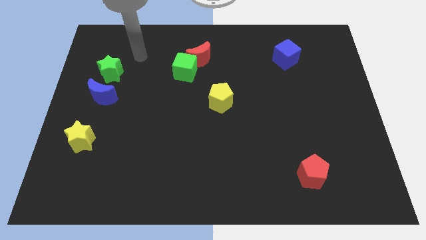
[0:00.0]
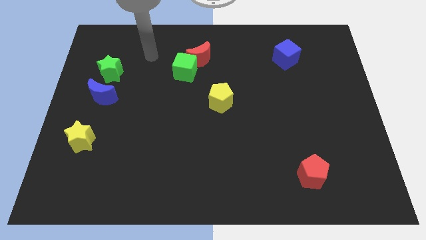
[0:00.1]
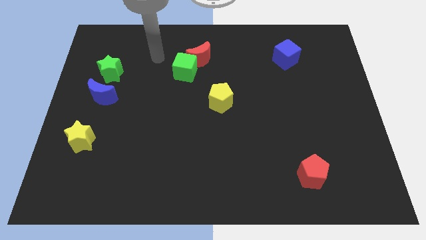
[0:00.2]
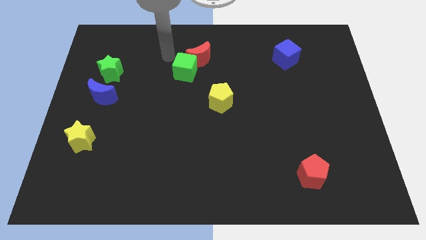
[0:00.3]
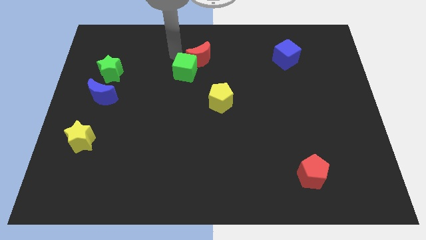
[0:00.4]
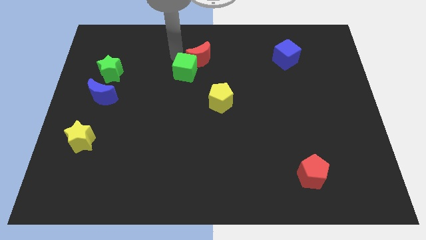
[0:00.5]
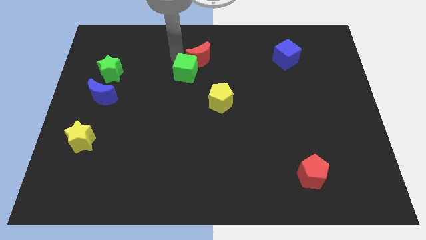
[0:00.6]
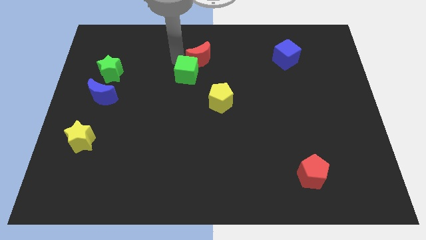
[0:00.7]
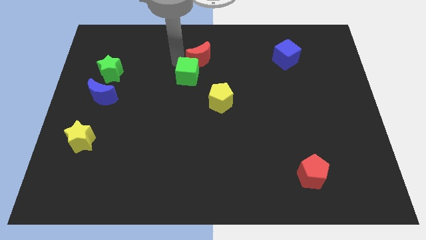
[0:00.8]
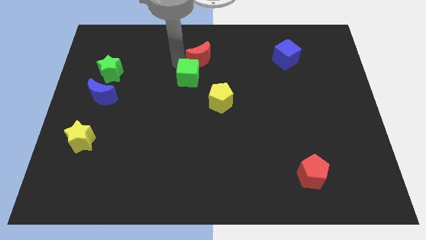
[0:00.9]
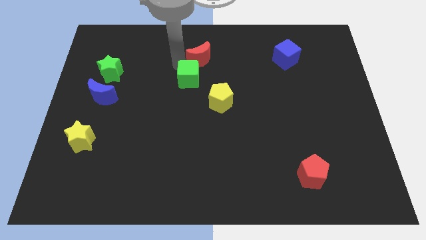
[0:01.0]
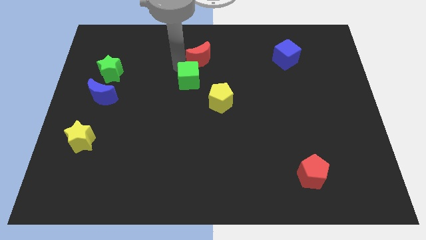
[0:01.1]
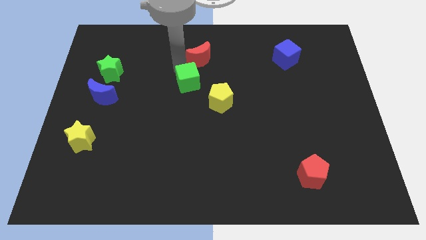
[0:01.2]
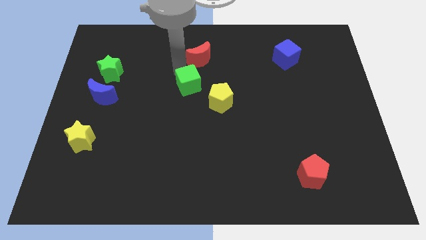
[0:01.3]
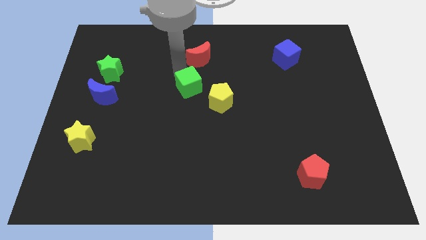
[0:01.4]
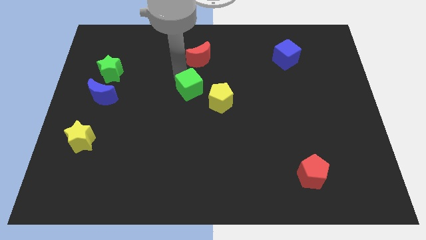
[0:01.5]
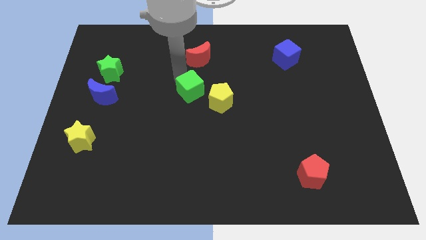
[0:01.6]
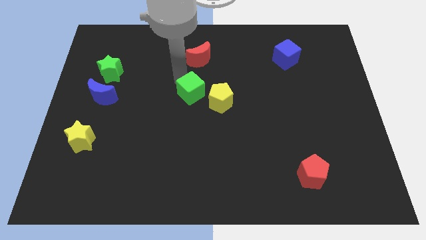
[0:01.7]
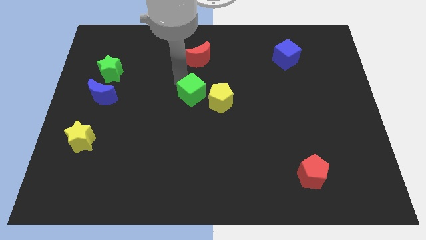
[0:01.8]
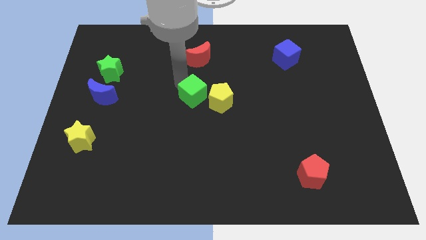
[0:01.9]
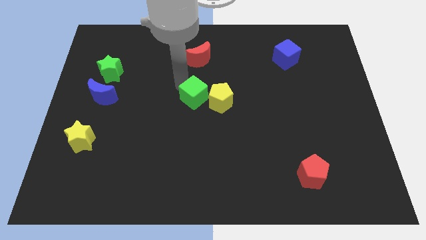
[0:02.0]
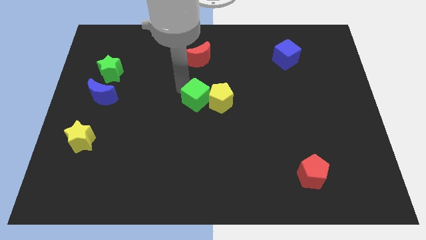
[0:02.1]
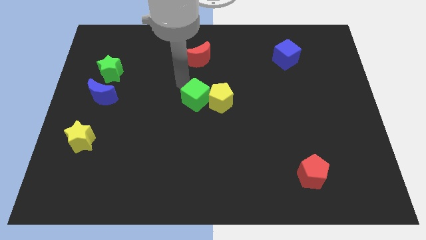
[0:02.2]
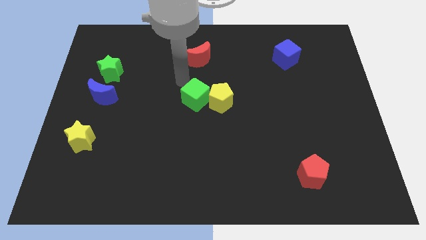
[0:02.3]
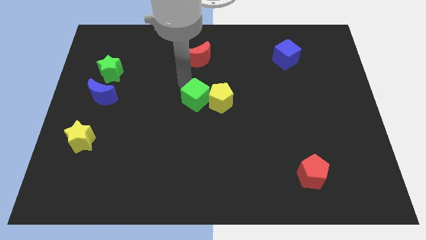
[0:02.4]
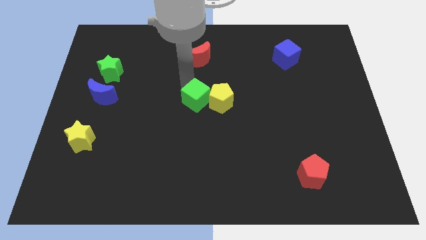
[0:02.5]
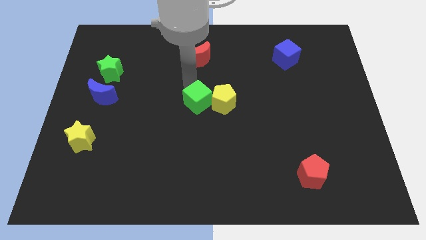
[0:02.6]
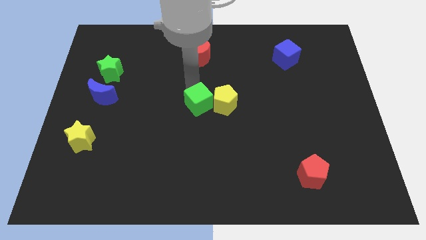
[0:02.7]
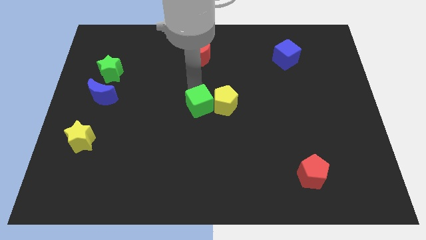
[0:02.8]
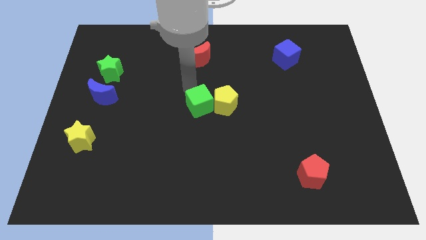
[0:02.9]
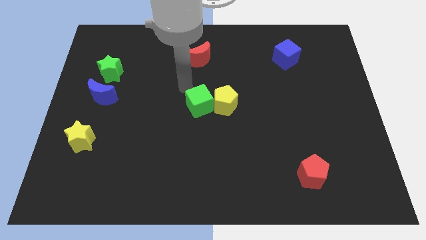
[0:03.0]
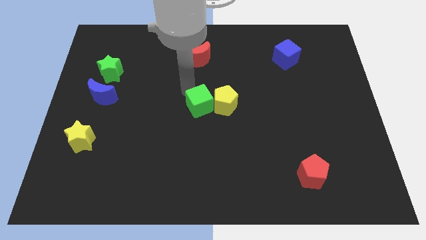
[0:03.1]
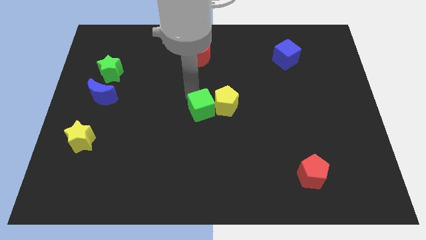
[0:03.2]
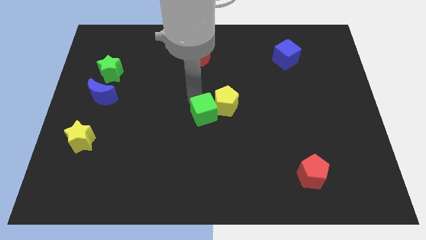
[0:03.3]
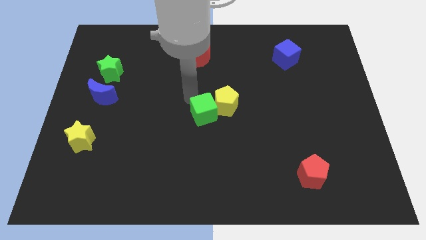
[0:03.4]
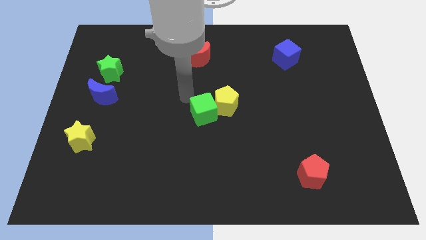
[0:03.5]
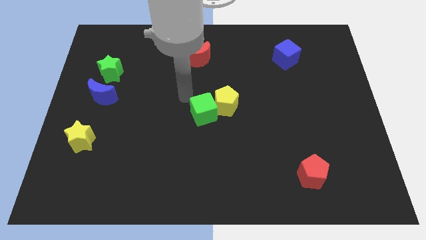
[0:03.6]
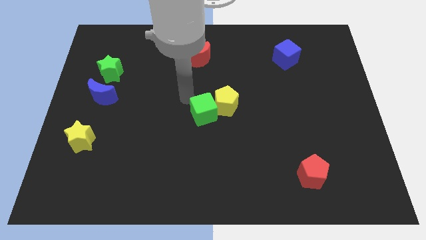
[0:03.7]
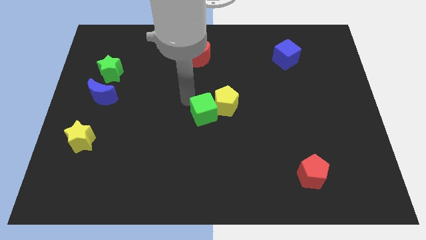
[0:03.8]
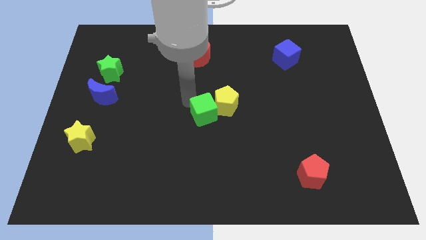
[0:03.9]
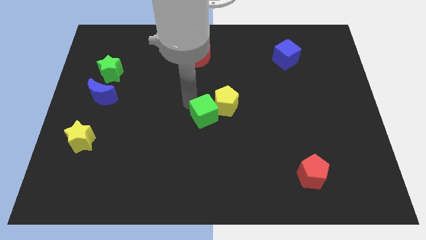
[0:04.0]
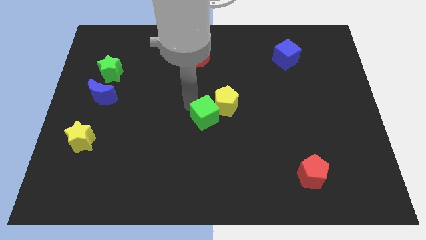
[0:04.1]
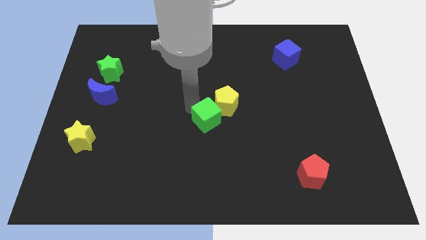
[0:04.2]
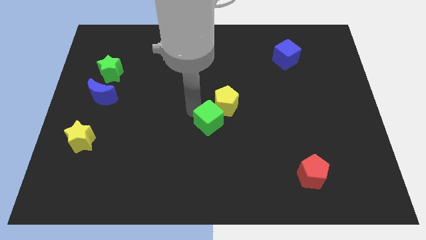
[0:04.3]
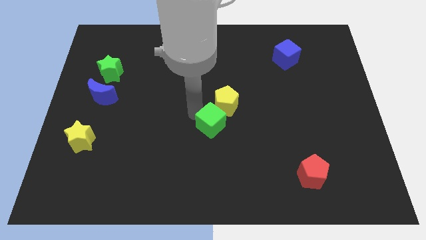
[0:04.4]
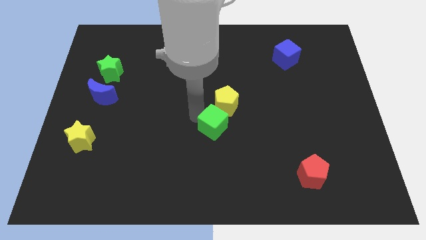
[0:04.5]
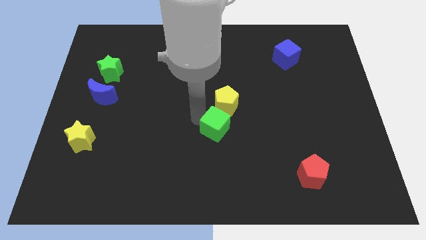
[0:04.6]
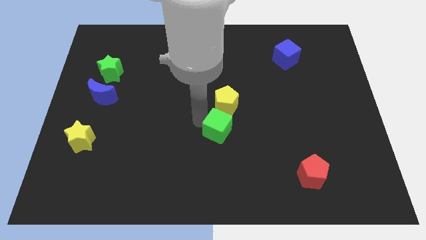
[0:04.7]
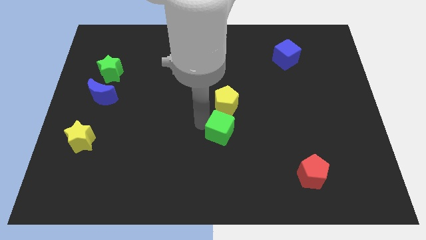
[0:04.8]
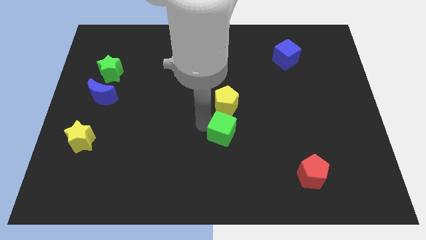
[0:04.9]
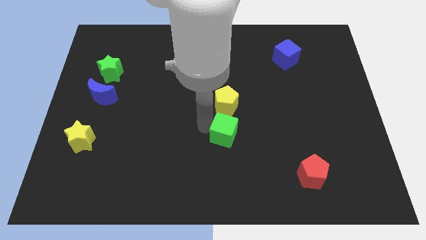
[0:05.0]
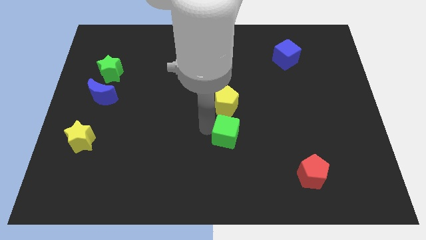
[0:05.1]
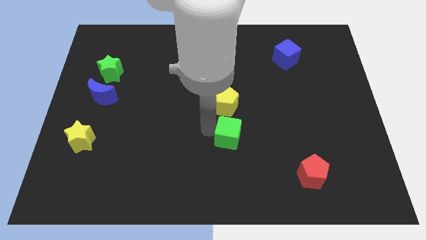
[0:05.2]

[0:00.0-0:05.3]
push the green cube downwards and to the right

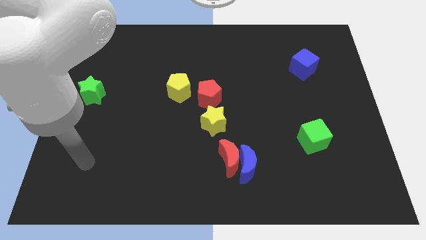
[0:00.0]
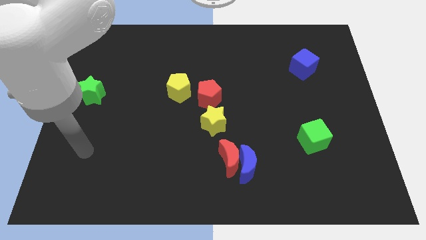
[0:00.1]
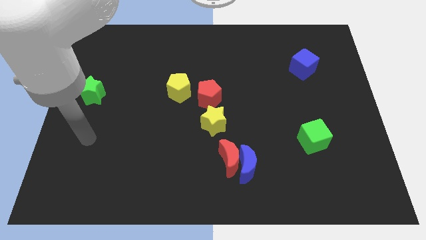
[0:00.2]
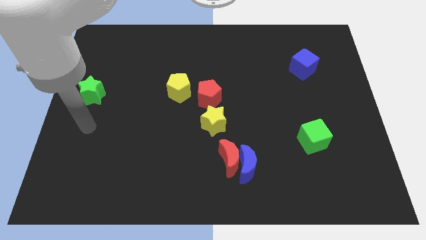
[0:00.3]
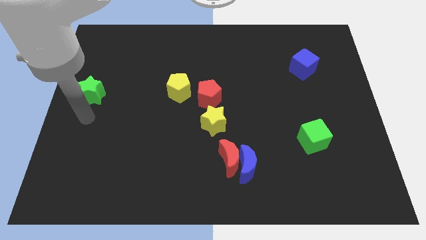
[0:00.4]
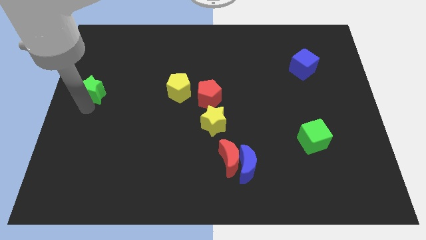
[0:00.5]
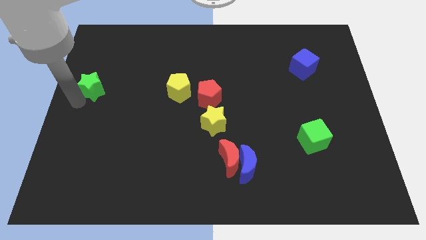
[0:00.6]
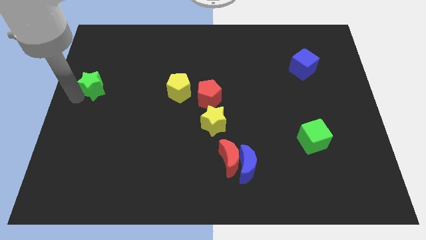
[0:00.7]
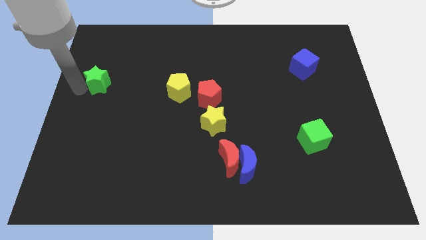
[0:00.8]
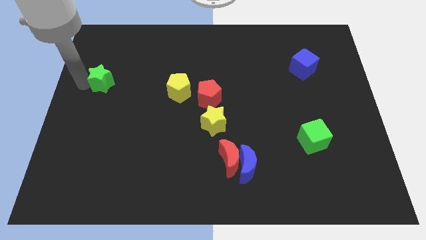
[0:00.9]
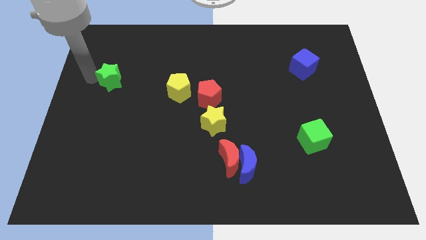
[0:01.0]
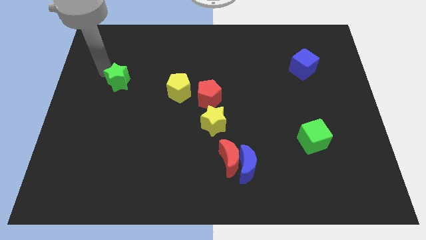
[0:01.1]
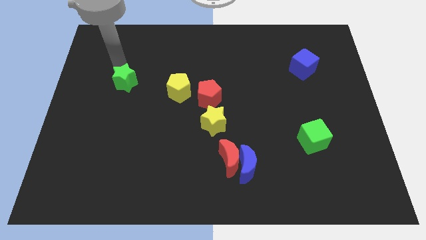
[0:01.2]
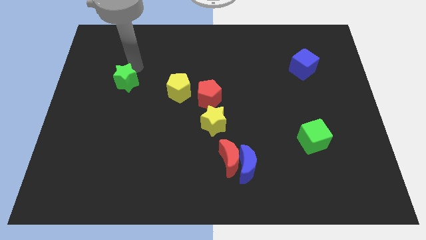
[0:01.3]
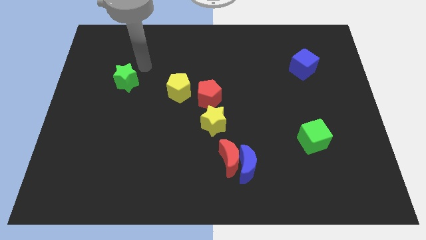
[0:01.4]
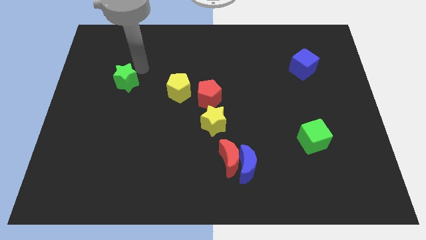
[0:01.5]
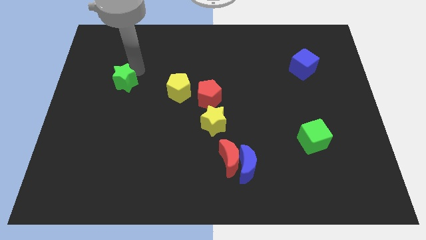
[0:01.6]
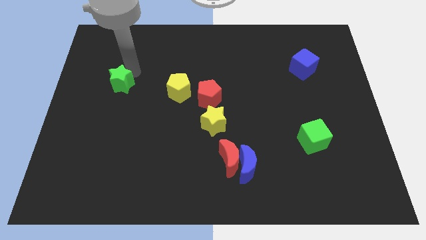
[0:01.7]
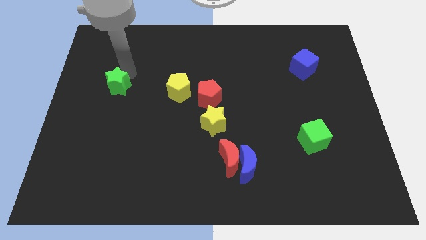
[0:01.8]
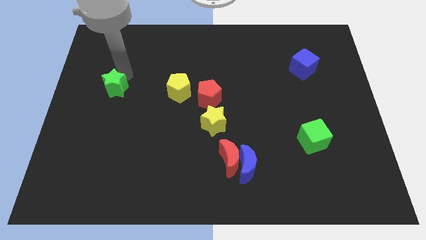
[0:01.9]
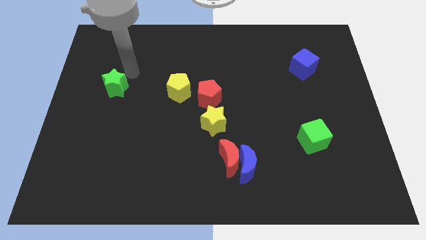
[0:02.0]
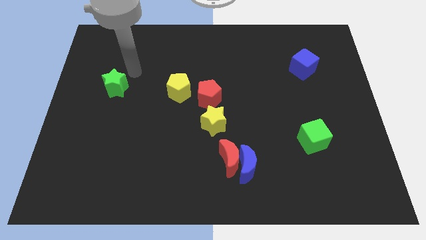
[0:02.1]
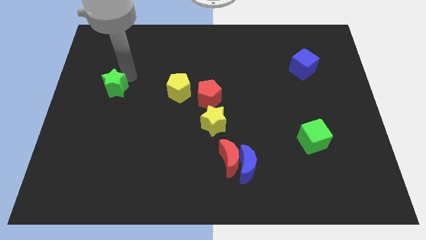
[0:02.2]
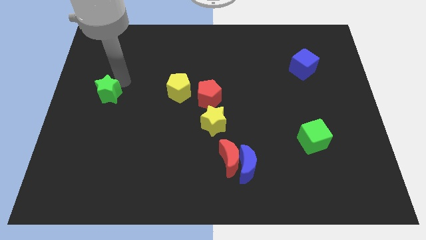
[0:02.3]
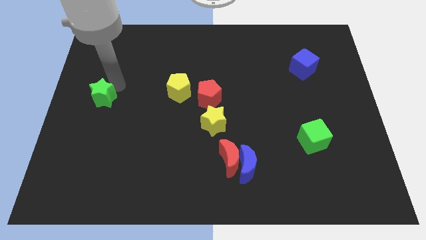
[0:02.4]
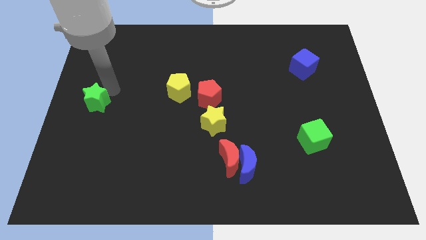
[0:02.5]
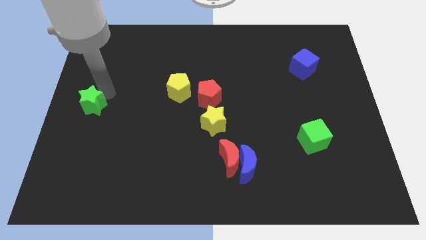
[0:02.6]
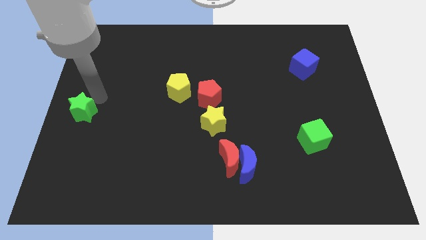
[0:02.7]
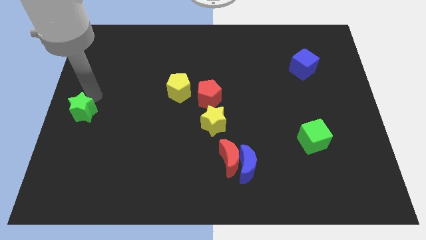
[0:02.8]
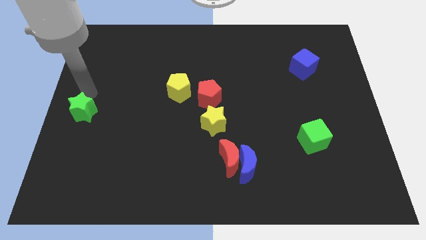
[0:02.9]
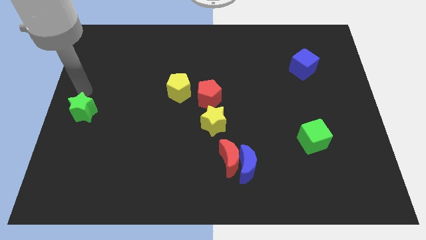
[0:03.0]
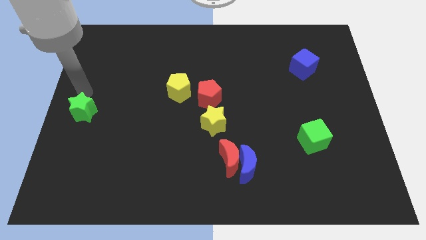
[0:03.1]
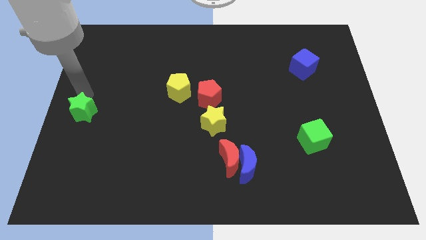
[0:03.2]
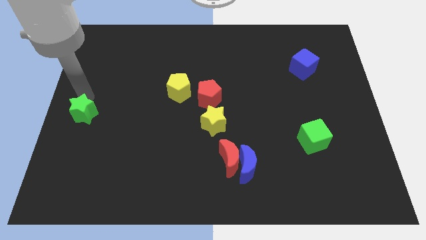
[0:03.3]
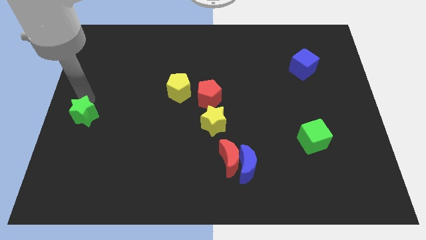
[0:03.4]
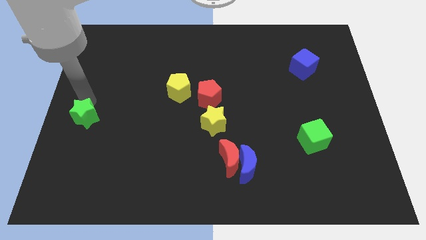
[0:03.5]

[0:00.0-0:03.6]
push the green star a little bit down
